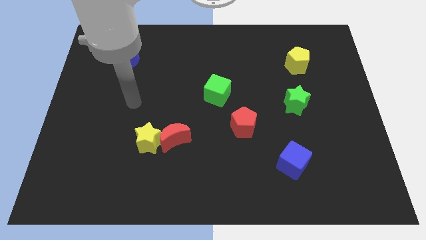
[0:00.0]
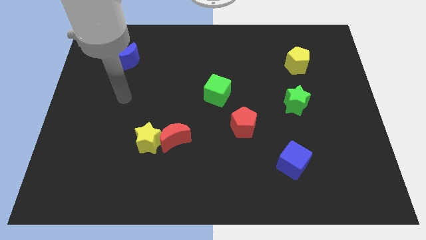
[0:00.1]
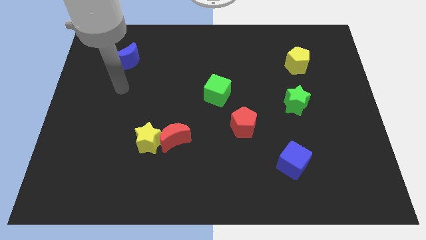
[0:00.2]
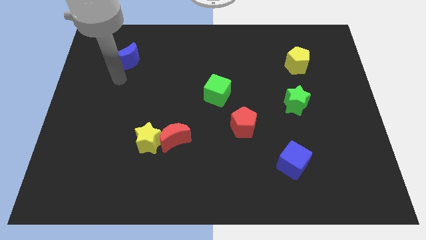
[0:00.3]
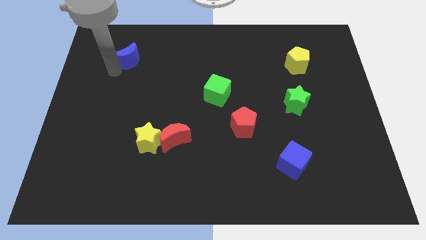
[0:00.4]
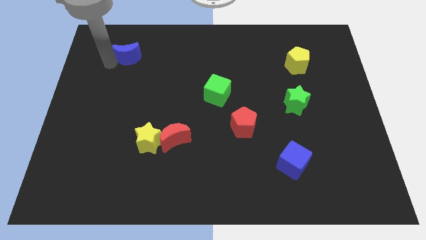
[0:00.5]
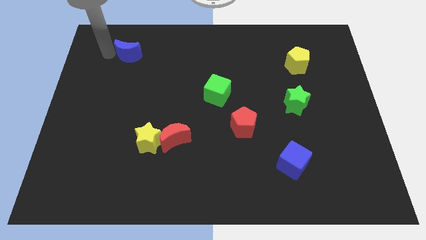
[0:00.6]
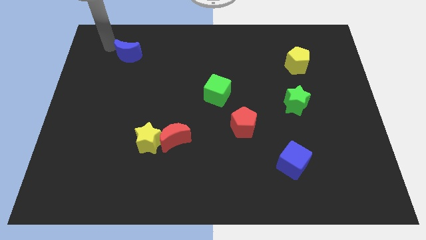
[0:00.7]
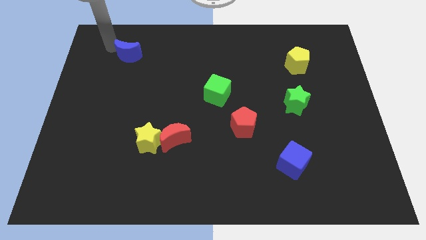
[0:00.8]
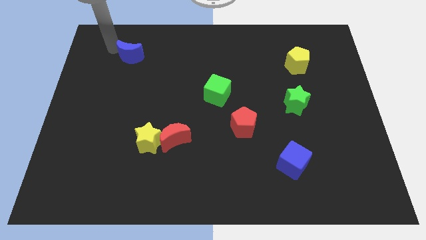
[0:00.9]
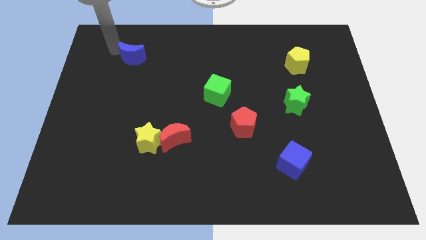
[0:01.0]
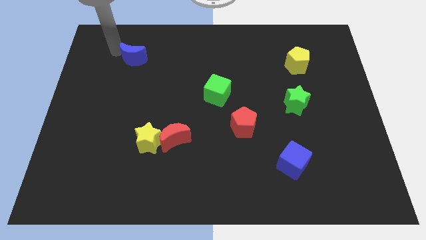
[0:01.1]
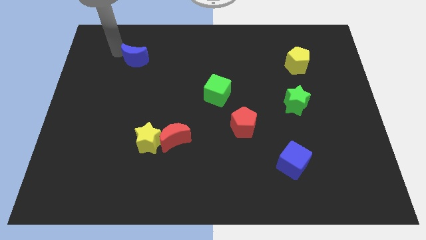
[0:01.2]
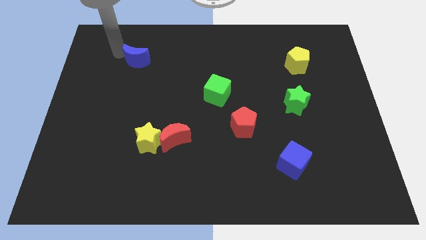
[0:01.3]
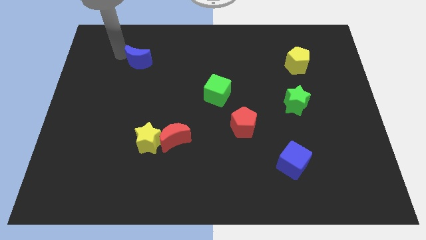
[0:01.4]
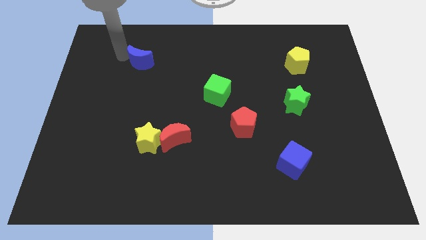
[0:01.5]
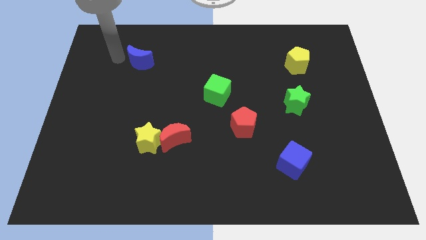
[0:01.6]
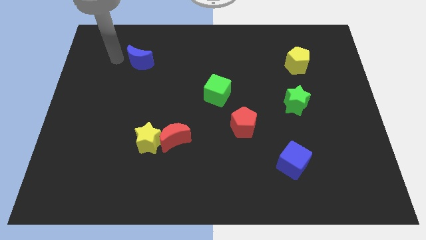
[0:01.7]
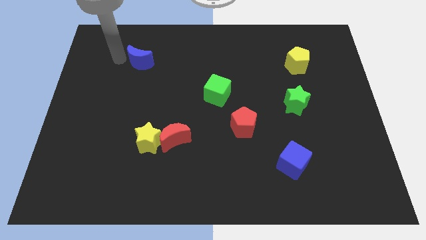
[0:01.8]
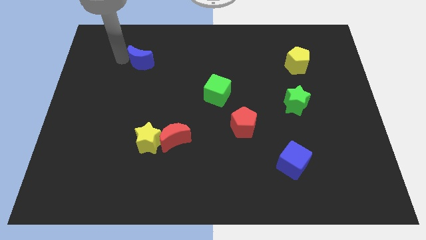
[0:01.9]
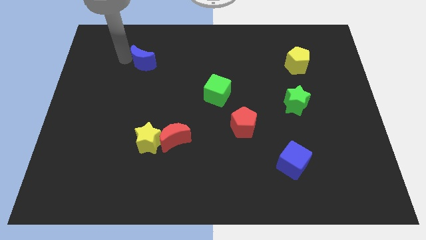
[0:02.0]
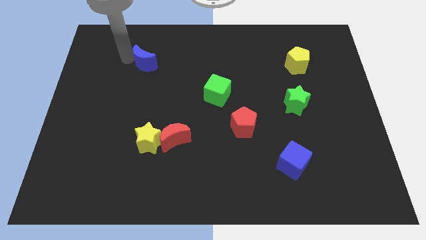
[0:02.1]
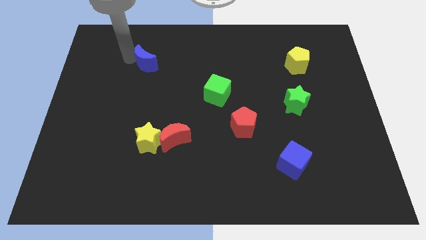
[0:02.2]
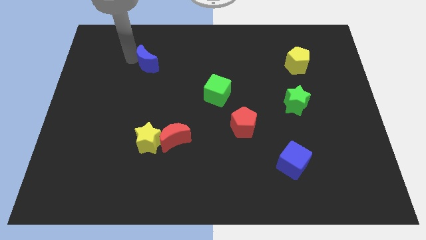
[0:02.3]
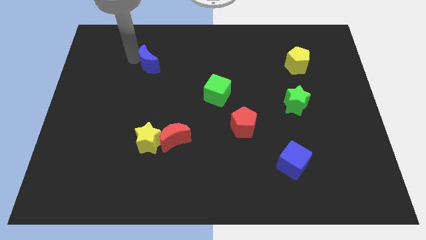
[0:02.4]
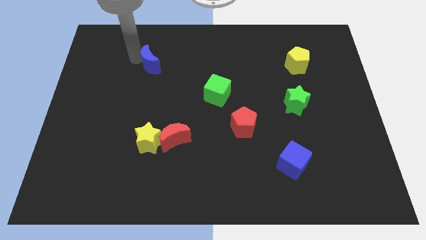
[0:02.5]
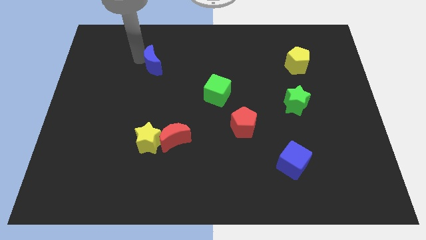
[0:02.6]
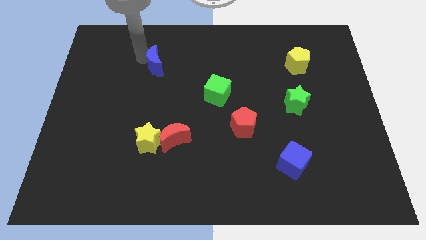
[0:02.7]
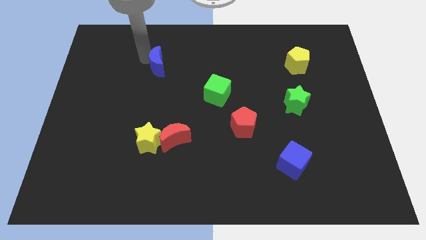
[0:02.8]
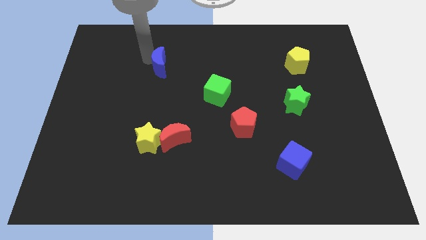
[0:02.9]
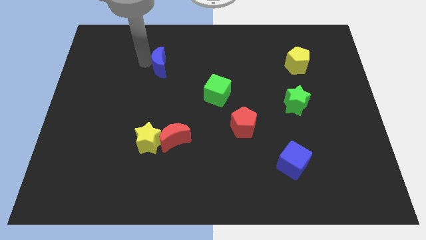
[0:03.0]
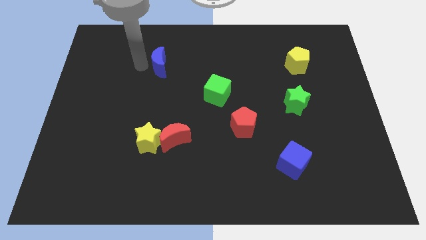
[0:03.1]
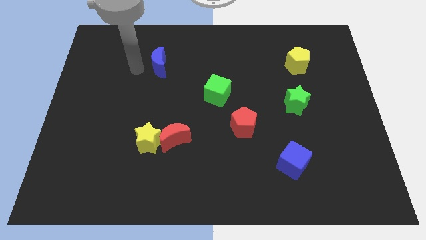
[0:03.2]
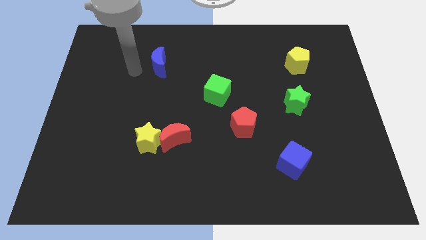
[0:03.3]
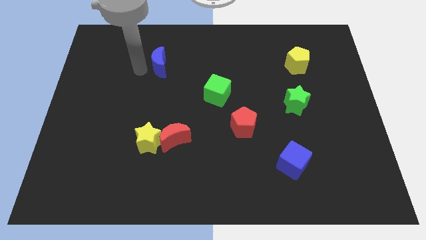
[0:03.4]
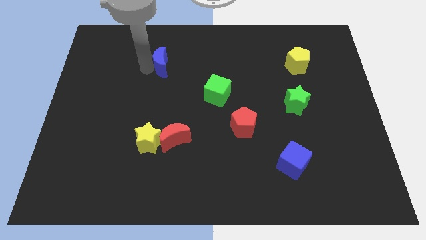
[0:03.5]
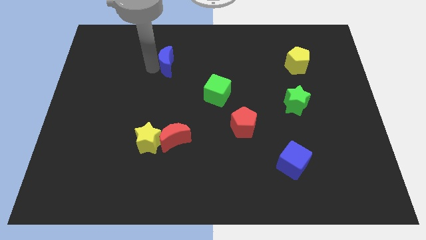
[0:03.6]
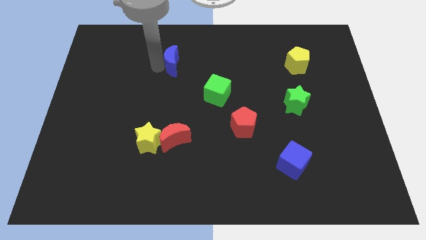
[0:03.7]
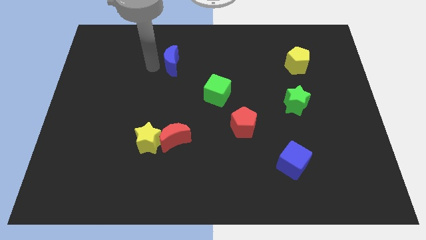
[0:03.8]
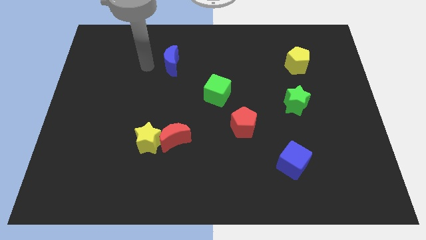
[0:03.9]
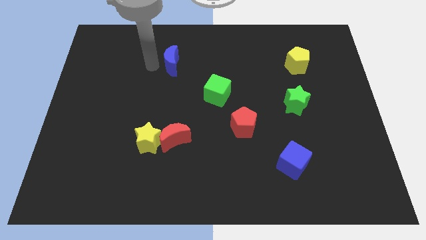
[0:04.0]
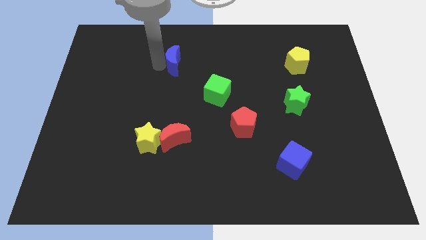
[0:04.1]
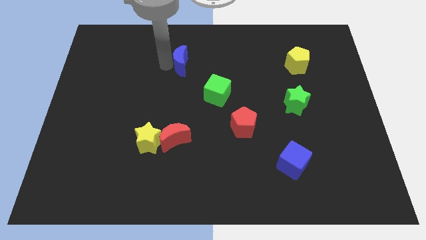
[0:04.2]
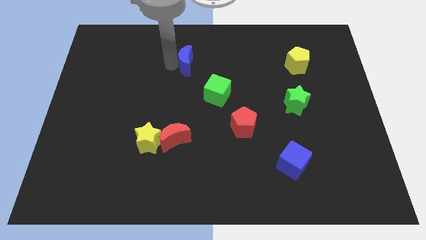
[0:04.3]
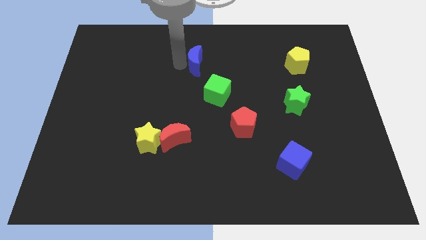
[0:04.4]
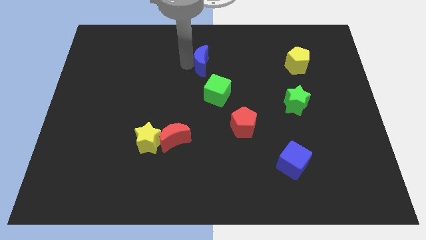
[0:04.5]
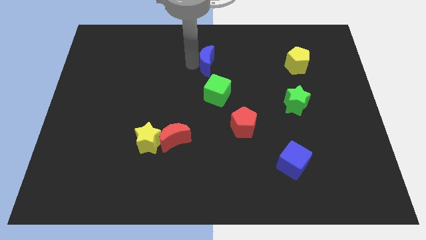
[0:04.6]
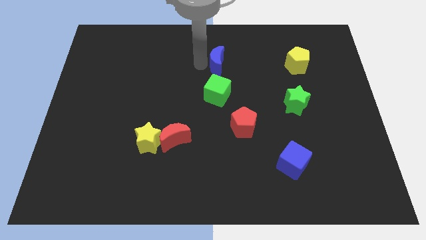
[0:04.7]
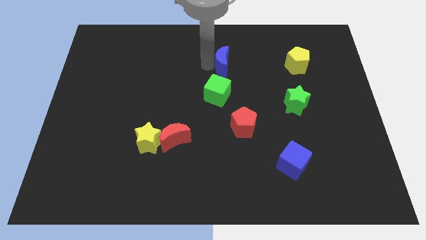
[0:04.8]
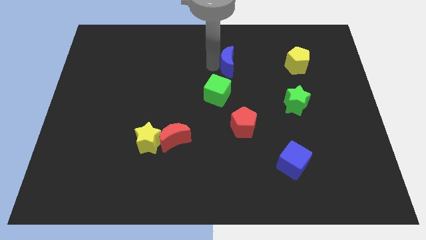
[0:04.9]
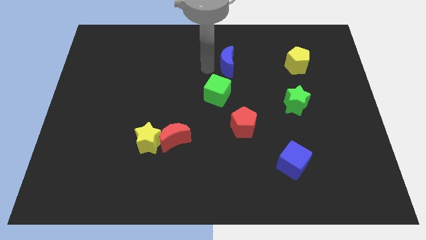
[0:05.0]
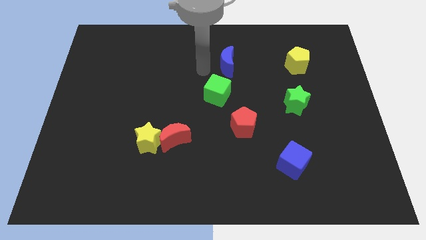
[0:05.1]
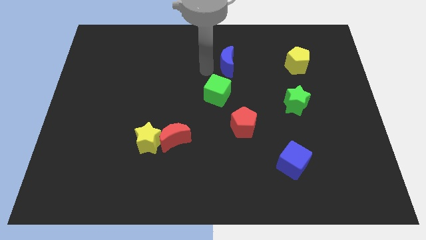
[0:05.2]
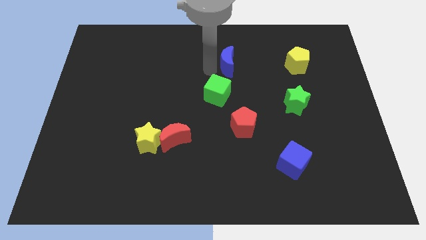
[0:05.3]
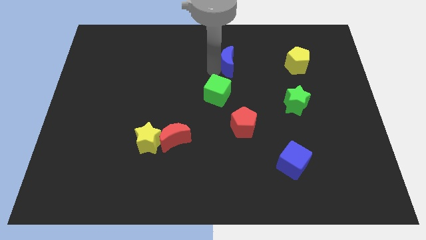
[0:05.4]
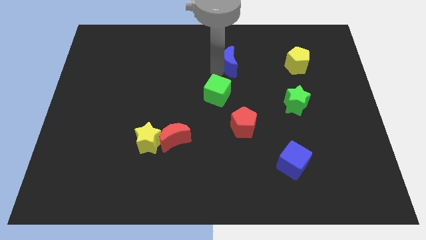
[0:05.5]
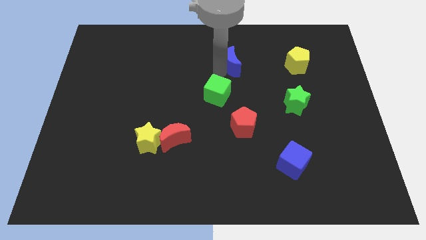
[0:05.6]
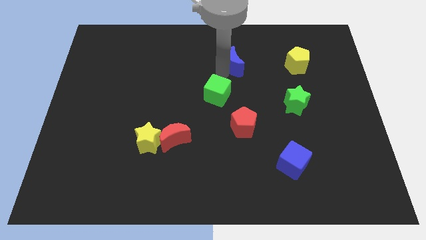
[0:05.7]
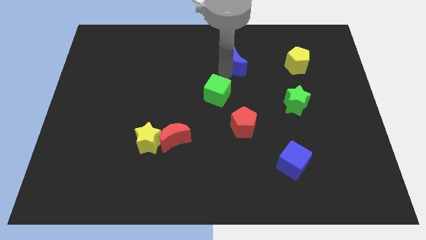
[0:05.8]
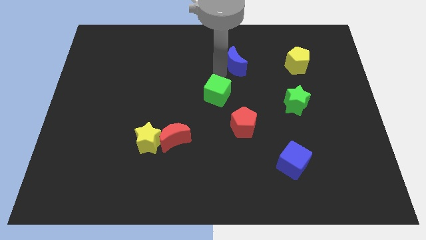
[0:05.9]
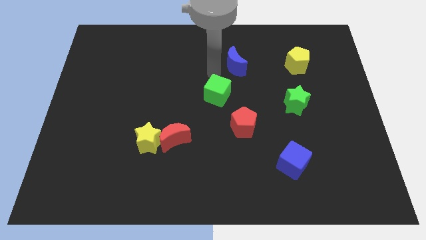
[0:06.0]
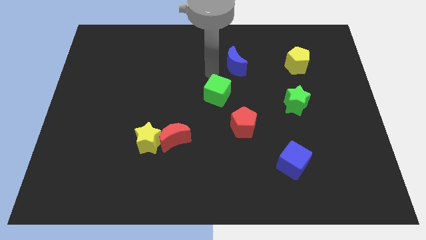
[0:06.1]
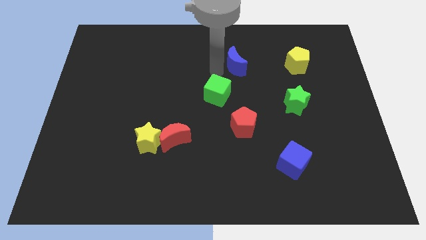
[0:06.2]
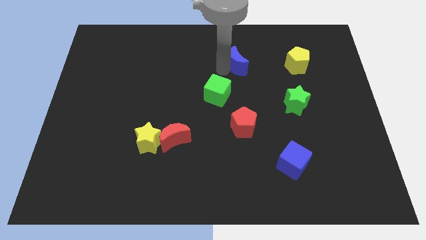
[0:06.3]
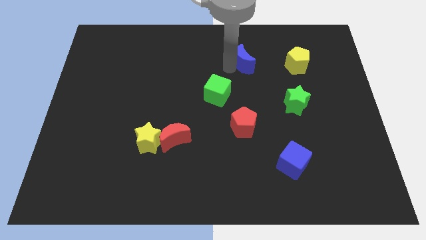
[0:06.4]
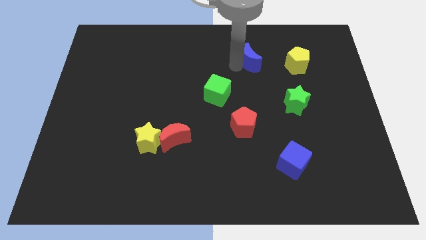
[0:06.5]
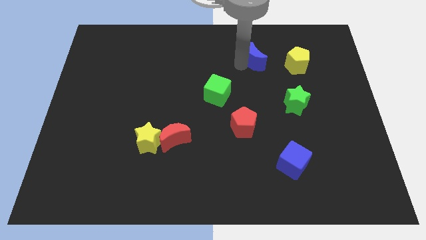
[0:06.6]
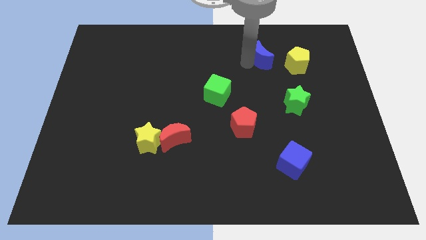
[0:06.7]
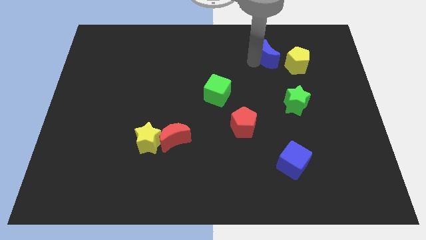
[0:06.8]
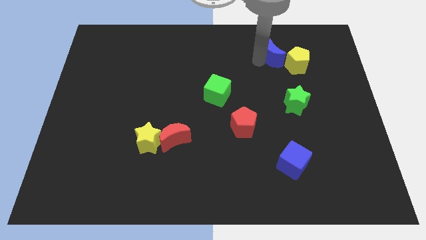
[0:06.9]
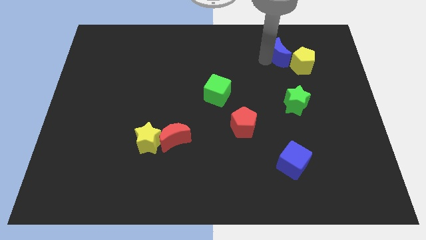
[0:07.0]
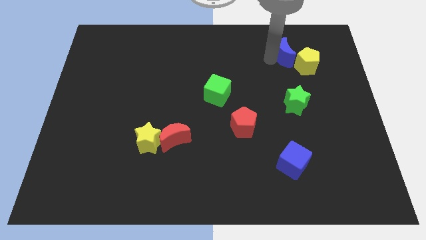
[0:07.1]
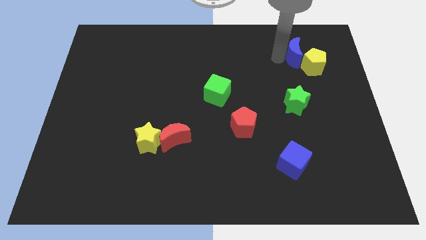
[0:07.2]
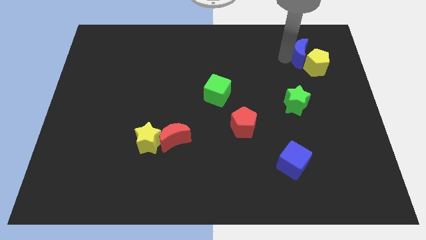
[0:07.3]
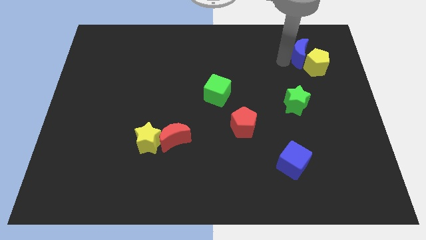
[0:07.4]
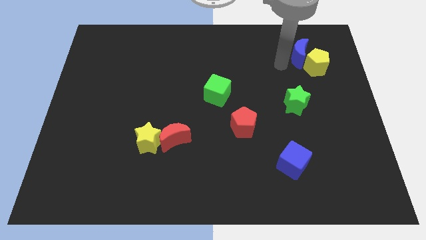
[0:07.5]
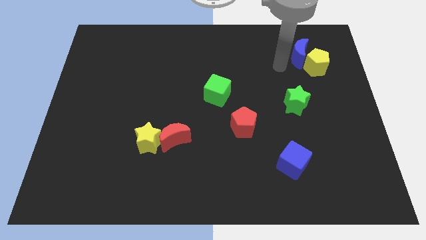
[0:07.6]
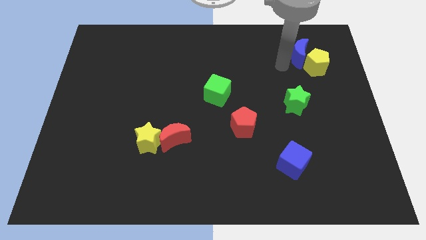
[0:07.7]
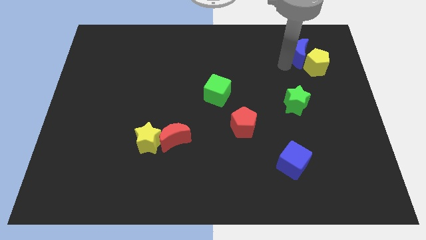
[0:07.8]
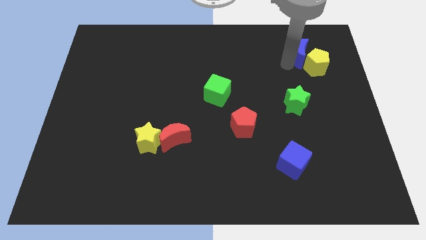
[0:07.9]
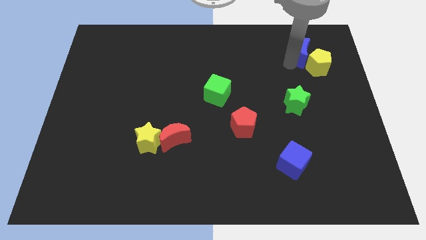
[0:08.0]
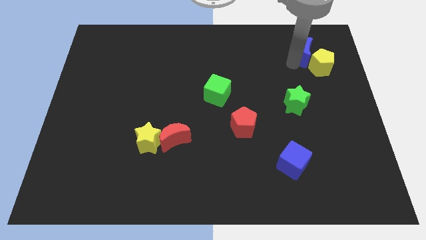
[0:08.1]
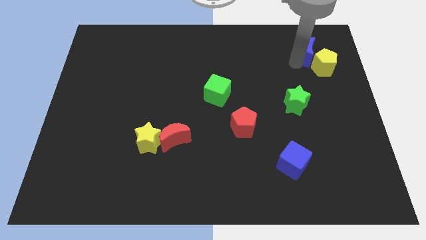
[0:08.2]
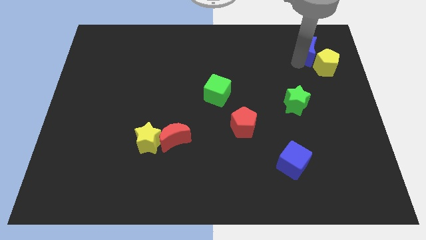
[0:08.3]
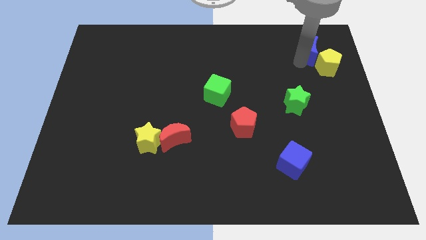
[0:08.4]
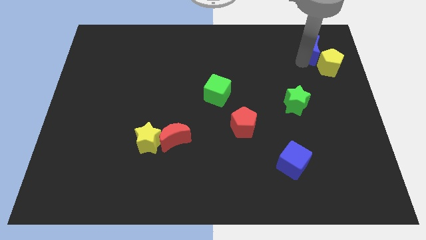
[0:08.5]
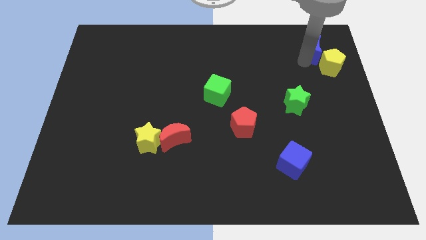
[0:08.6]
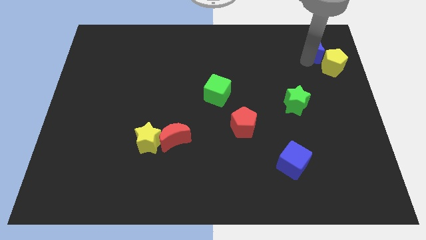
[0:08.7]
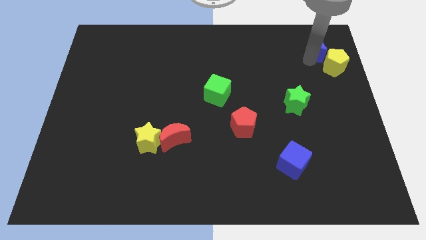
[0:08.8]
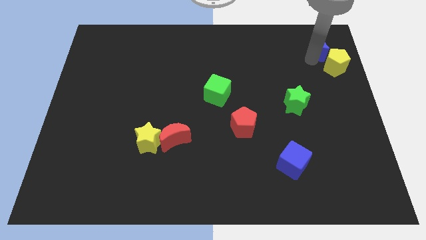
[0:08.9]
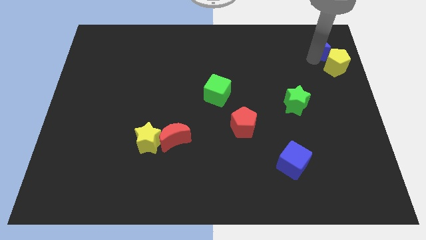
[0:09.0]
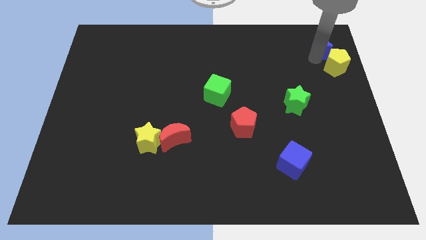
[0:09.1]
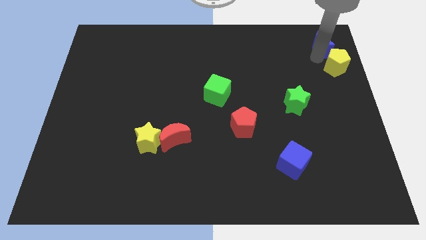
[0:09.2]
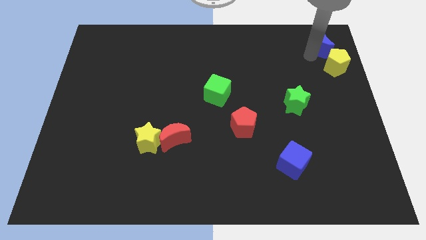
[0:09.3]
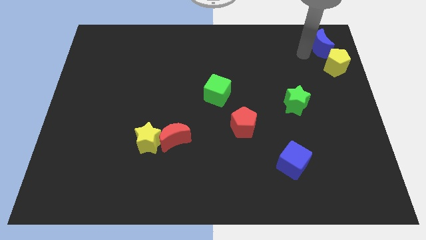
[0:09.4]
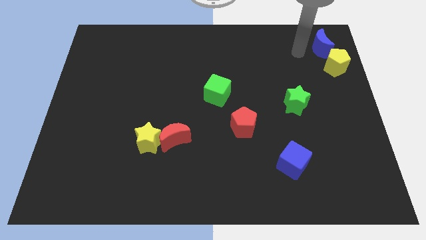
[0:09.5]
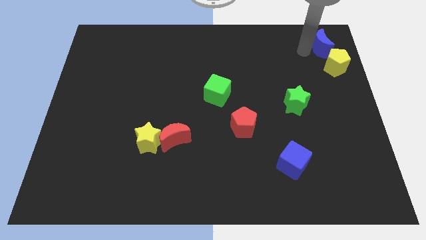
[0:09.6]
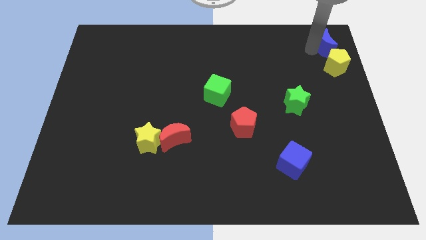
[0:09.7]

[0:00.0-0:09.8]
push the blue moon to the top right corner
